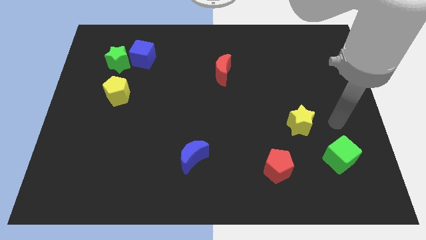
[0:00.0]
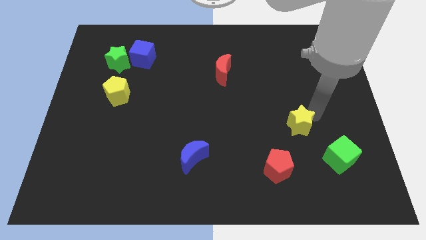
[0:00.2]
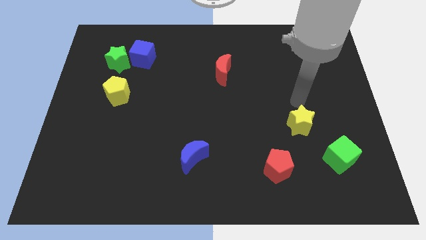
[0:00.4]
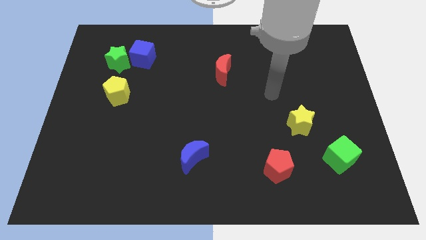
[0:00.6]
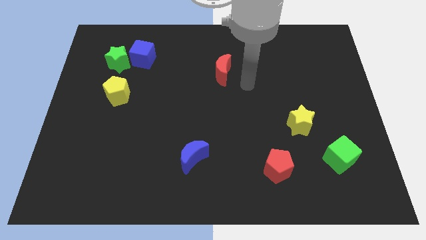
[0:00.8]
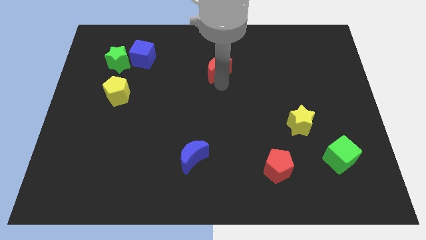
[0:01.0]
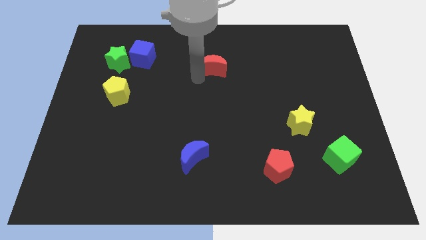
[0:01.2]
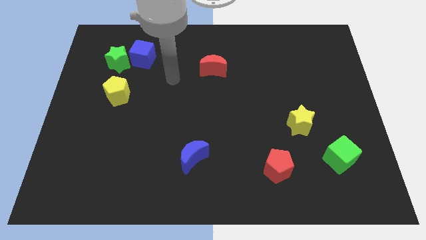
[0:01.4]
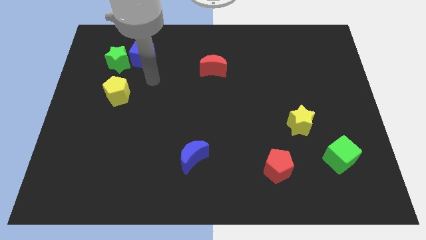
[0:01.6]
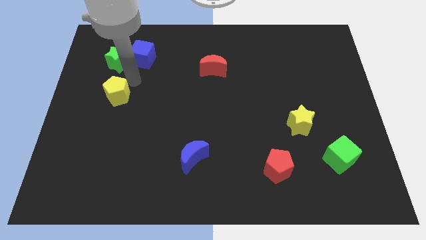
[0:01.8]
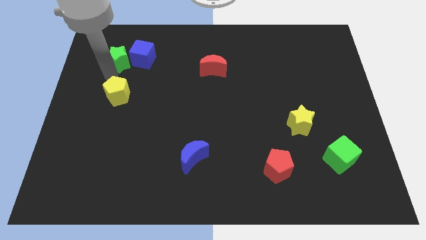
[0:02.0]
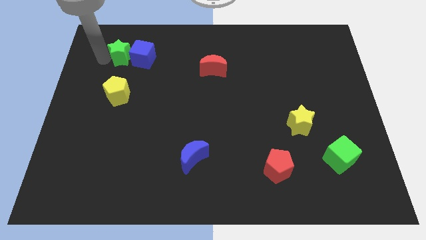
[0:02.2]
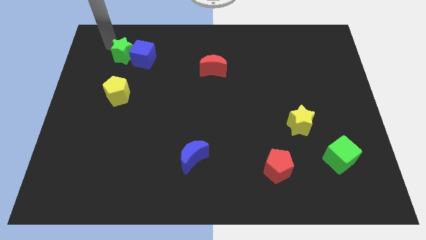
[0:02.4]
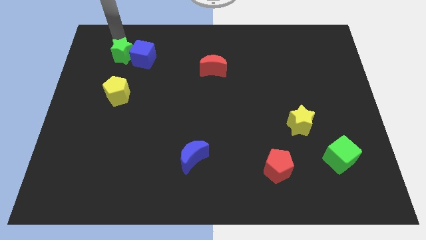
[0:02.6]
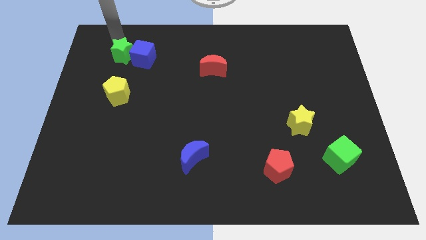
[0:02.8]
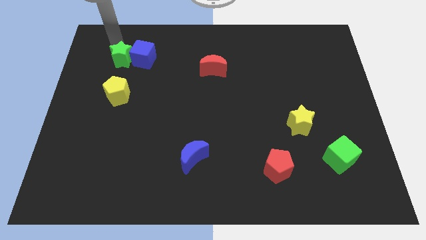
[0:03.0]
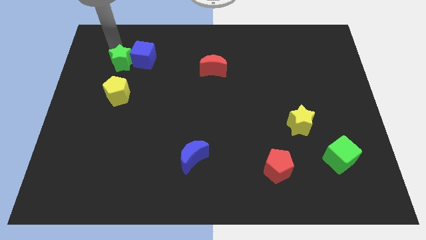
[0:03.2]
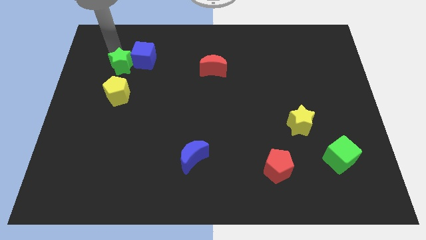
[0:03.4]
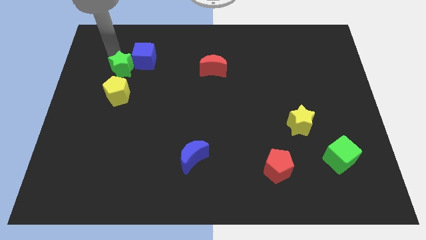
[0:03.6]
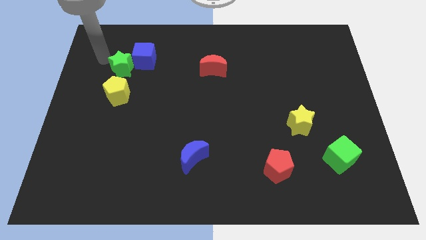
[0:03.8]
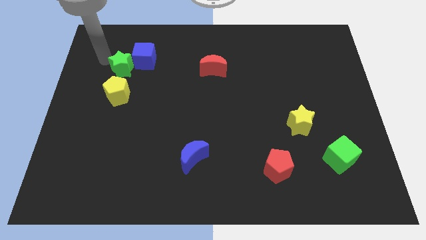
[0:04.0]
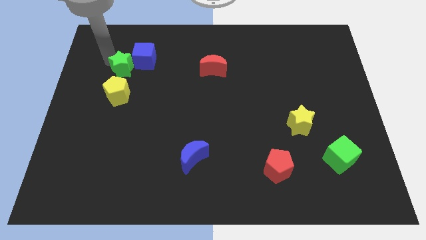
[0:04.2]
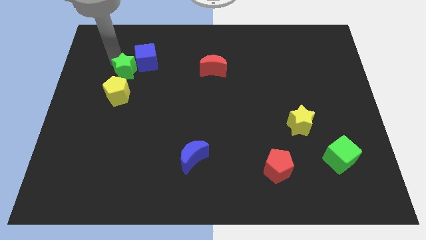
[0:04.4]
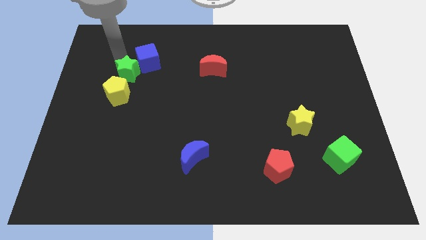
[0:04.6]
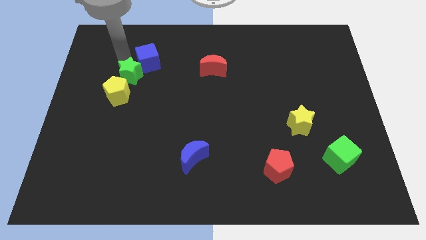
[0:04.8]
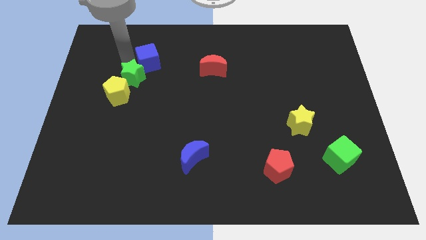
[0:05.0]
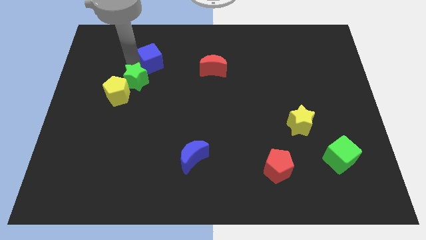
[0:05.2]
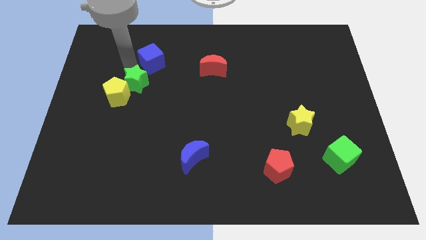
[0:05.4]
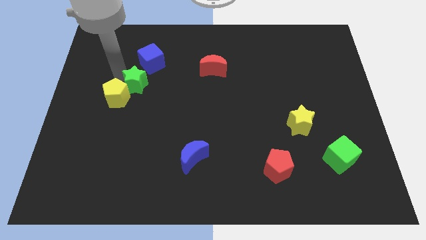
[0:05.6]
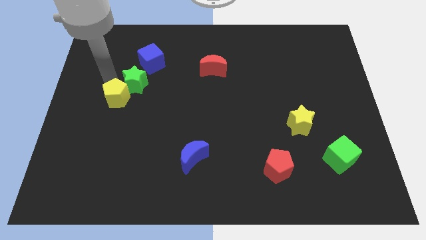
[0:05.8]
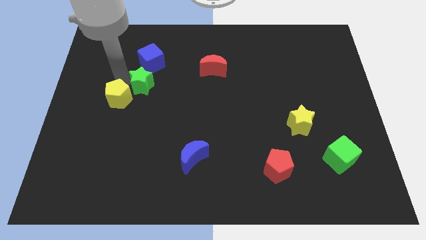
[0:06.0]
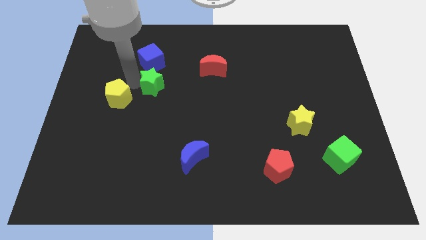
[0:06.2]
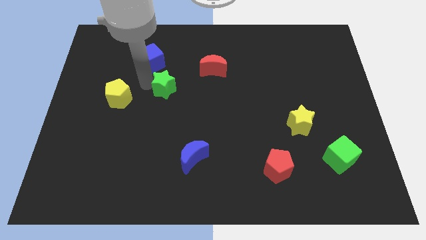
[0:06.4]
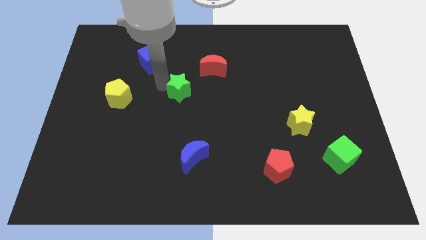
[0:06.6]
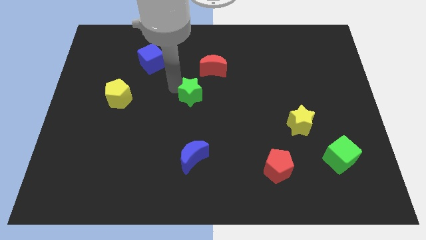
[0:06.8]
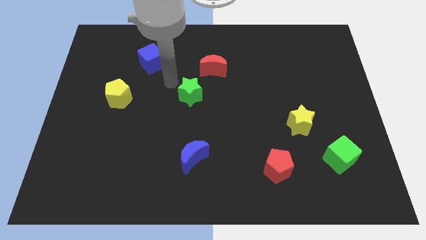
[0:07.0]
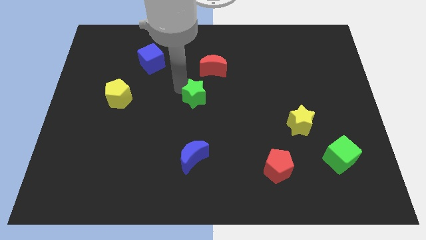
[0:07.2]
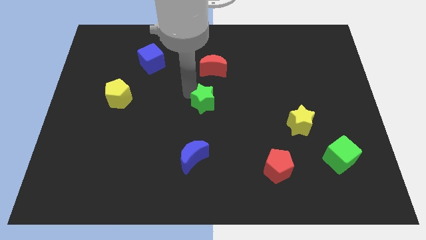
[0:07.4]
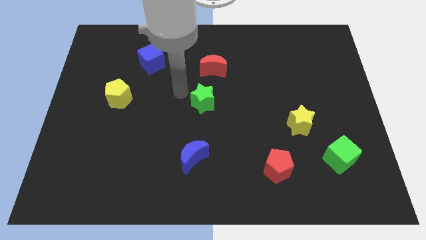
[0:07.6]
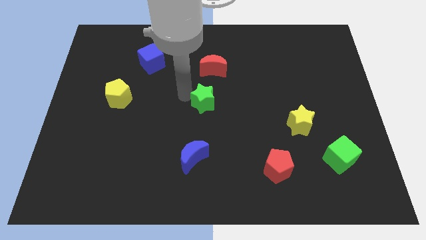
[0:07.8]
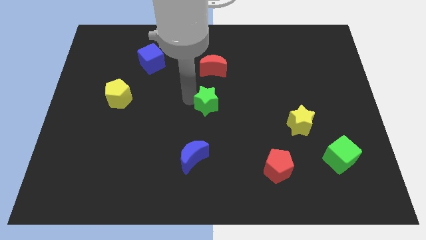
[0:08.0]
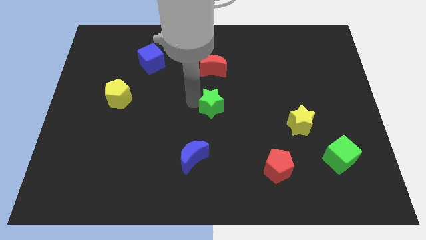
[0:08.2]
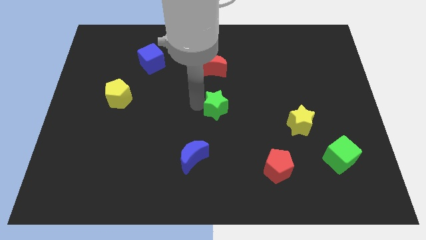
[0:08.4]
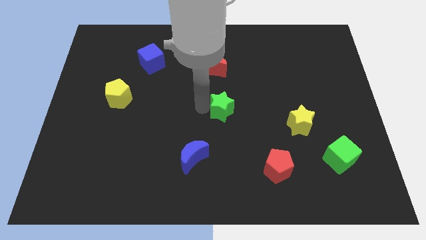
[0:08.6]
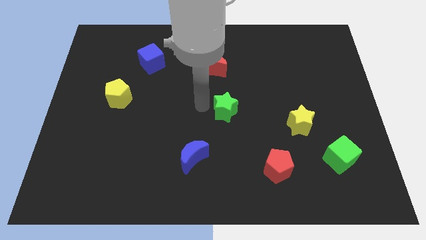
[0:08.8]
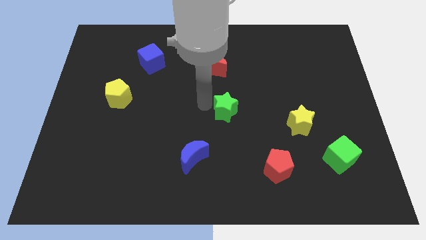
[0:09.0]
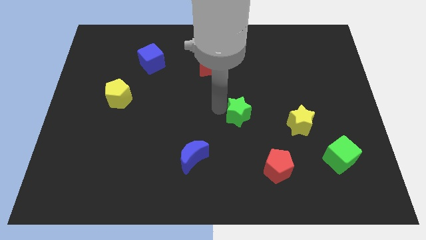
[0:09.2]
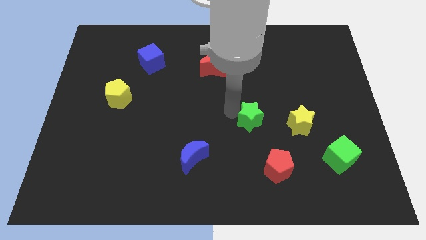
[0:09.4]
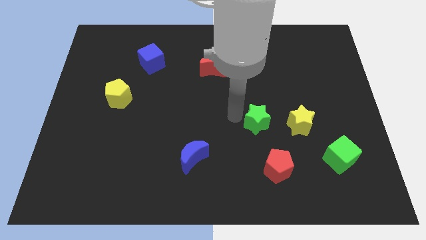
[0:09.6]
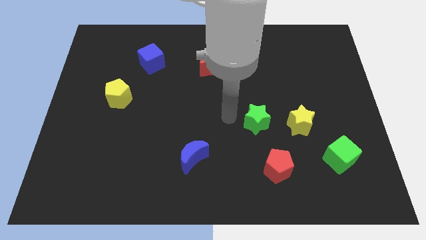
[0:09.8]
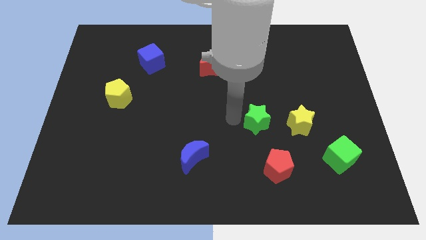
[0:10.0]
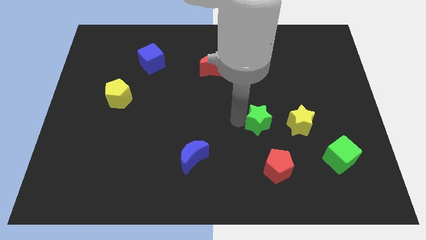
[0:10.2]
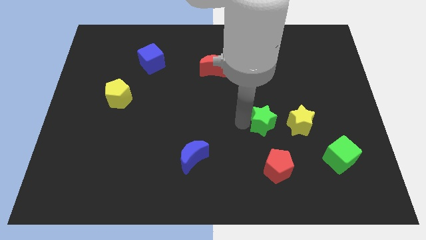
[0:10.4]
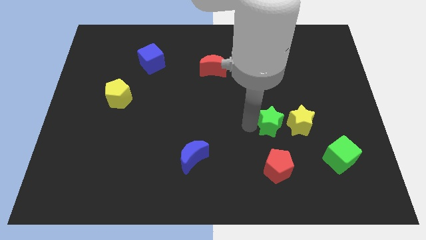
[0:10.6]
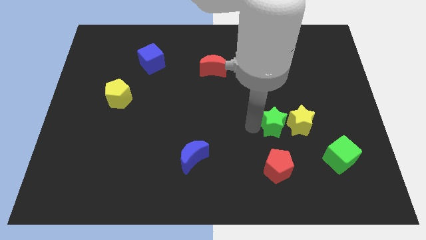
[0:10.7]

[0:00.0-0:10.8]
slide the green star next to the yellow star

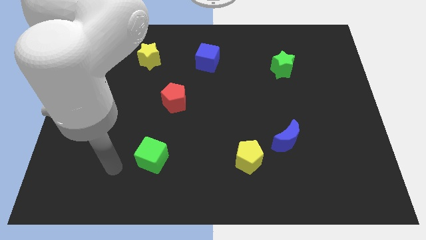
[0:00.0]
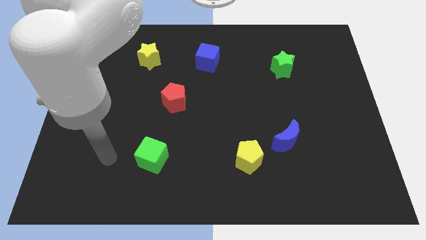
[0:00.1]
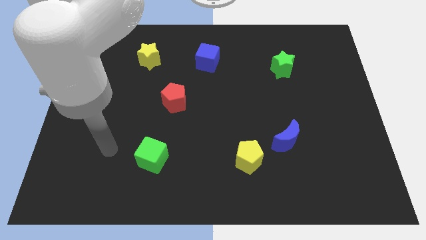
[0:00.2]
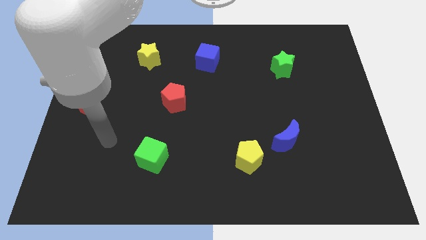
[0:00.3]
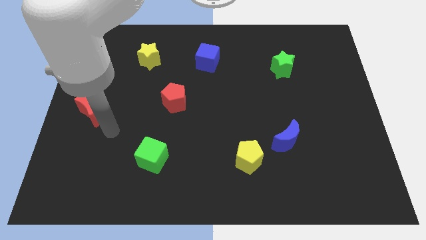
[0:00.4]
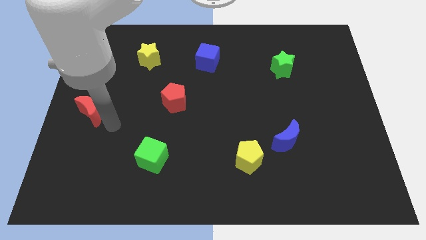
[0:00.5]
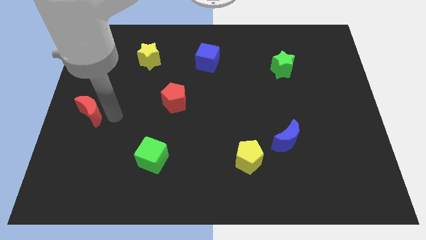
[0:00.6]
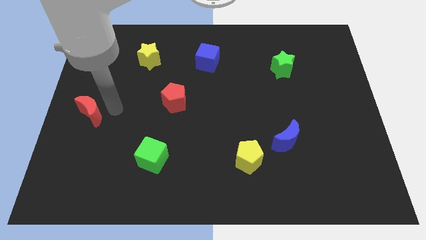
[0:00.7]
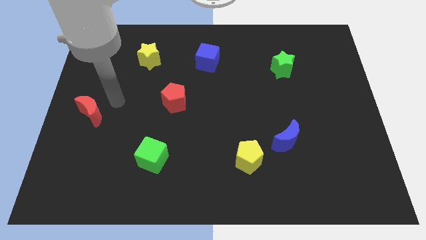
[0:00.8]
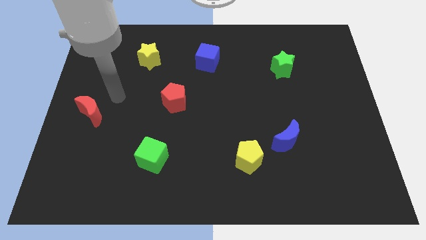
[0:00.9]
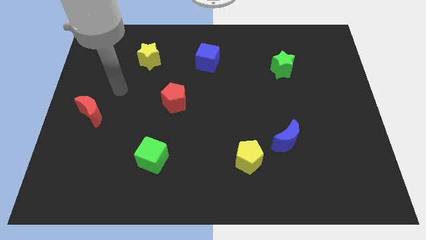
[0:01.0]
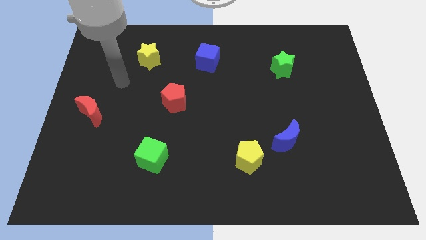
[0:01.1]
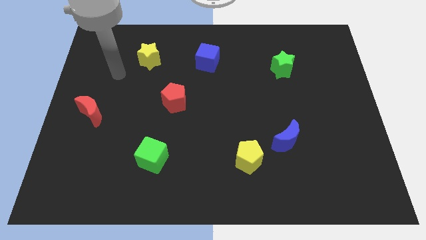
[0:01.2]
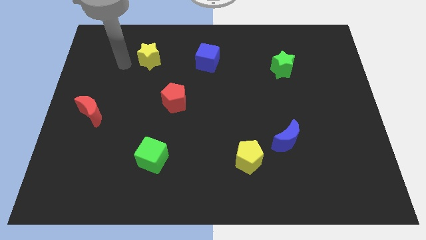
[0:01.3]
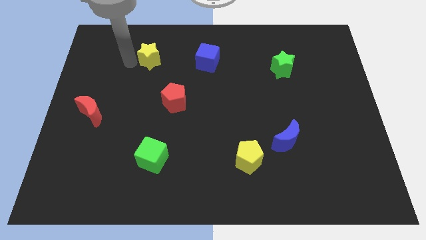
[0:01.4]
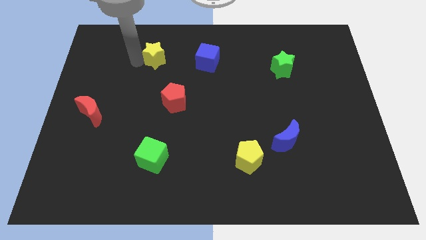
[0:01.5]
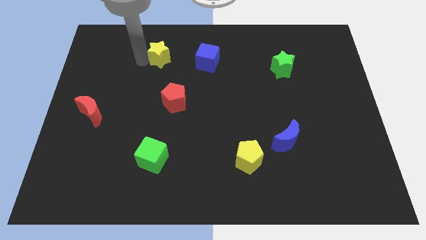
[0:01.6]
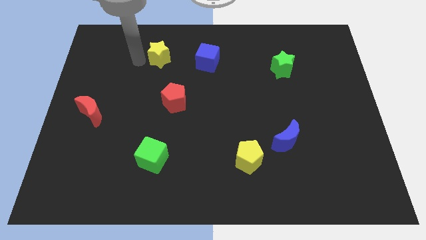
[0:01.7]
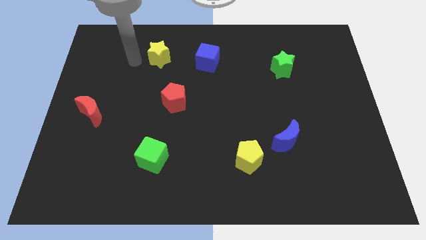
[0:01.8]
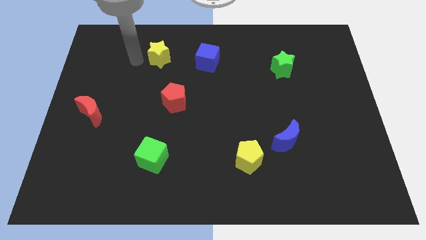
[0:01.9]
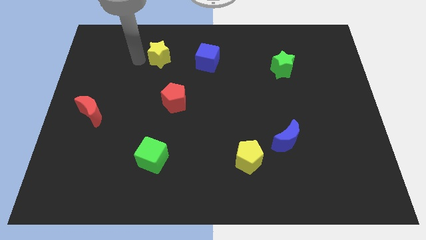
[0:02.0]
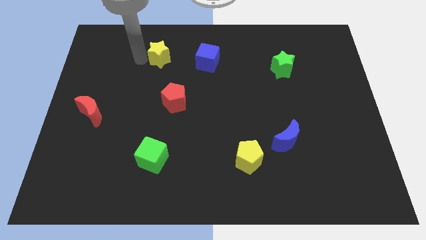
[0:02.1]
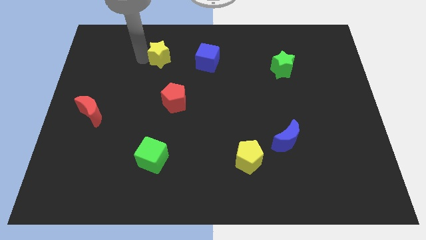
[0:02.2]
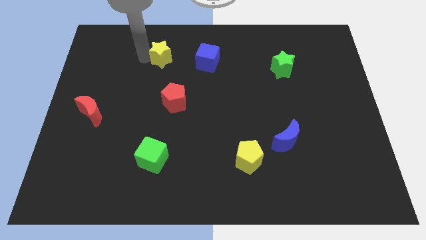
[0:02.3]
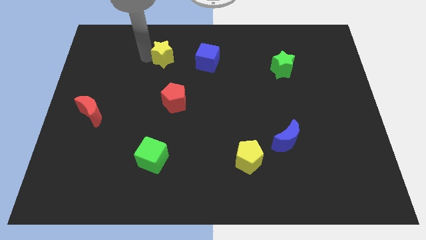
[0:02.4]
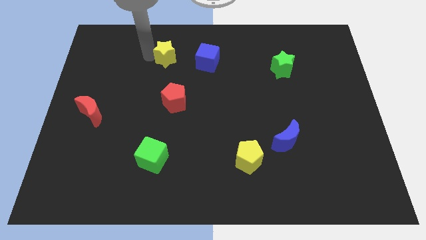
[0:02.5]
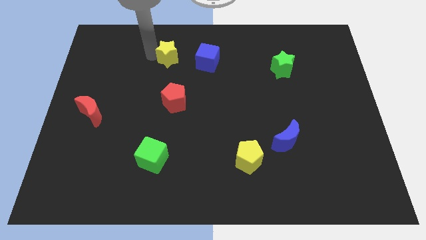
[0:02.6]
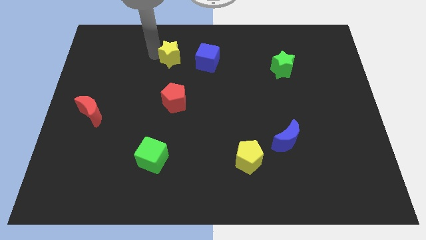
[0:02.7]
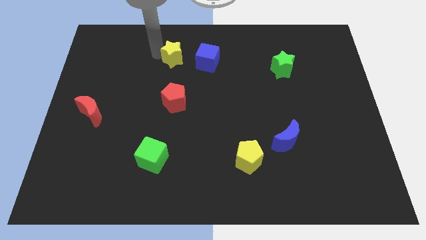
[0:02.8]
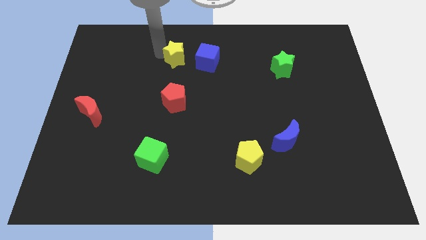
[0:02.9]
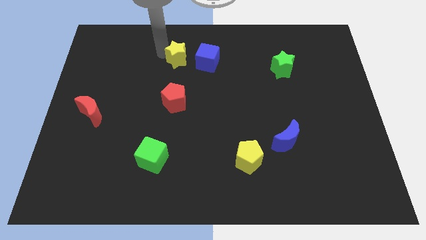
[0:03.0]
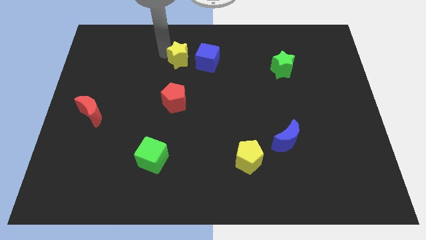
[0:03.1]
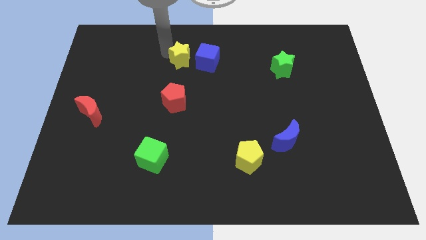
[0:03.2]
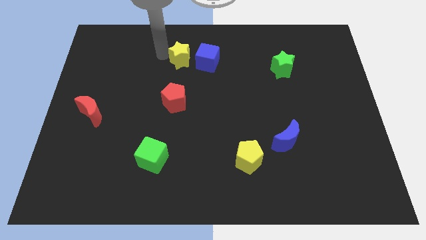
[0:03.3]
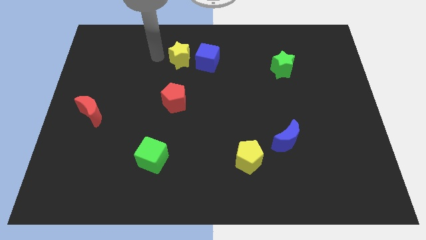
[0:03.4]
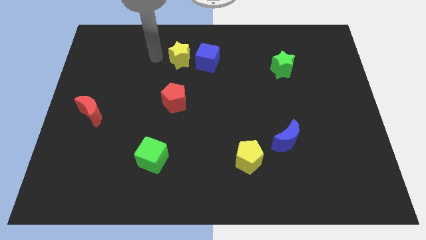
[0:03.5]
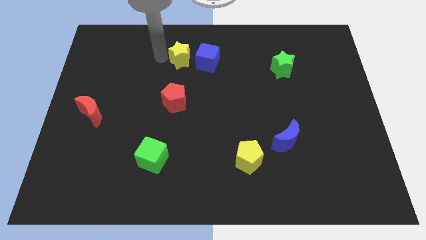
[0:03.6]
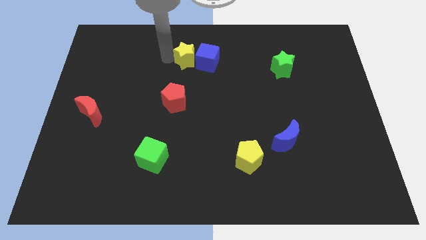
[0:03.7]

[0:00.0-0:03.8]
push the yellow star next to the blue cube
